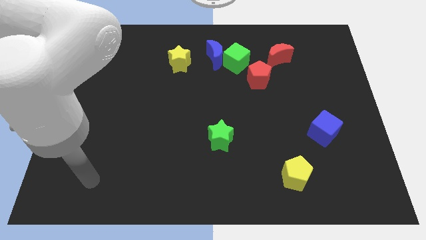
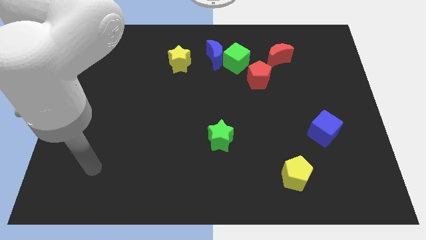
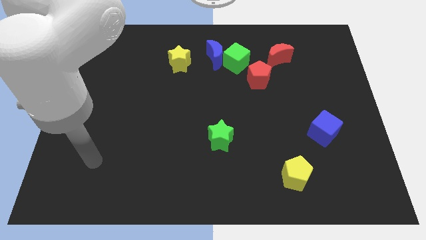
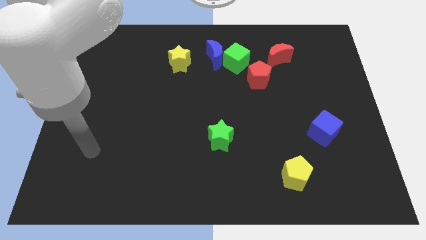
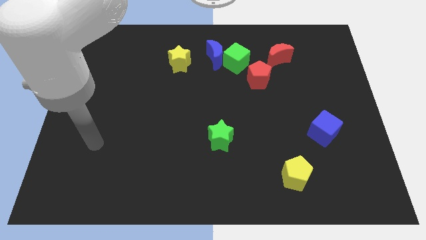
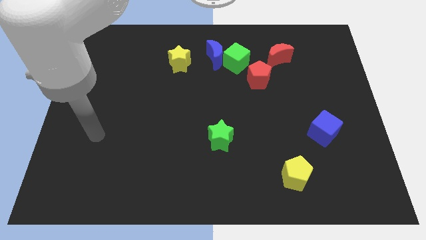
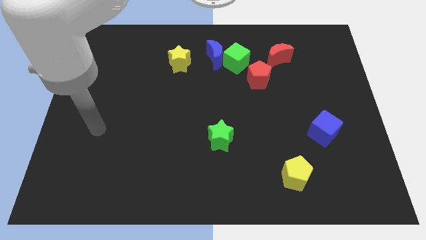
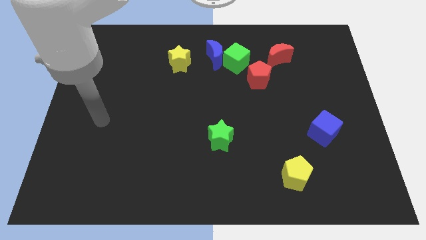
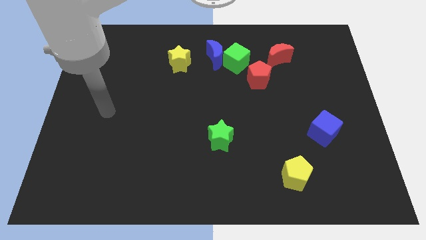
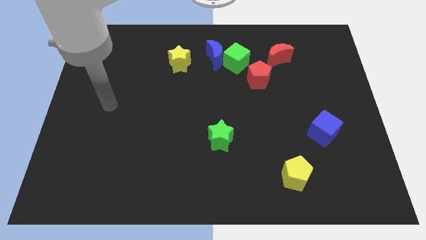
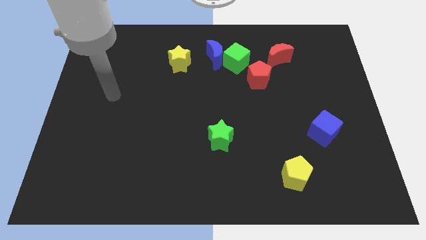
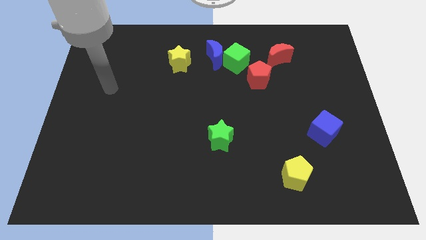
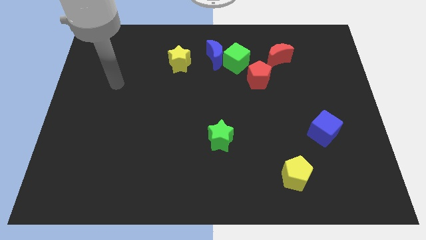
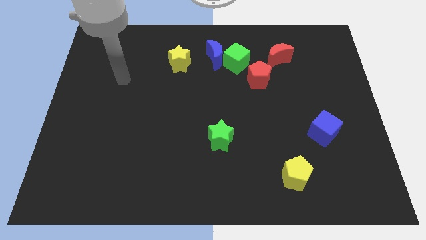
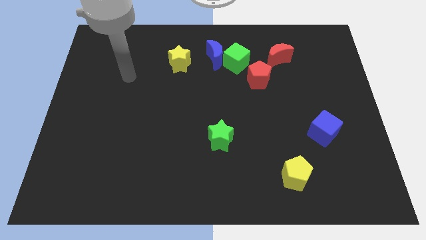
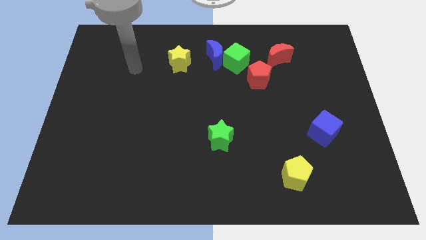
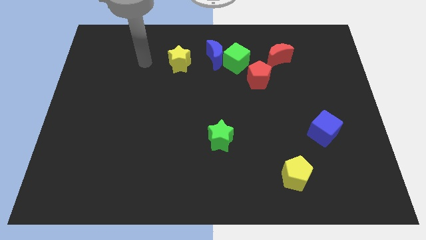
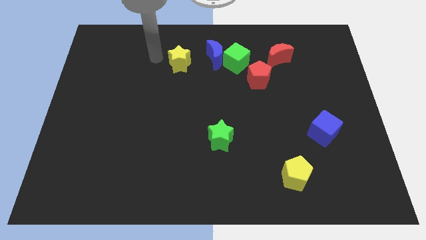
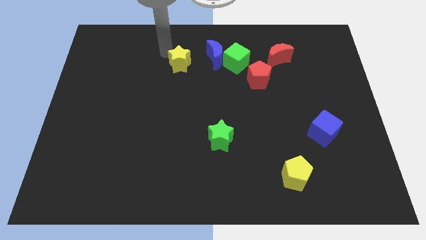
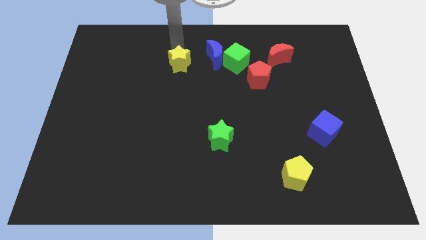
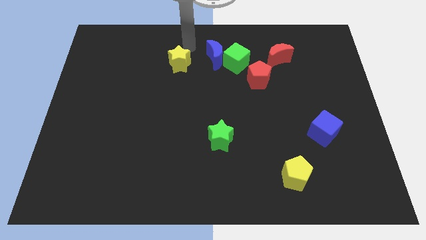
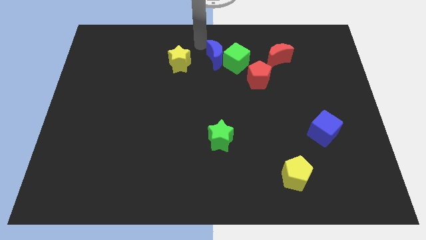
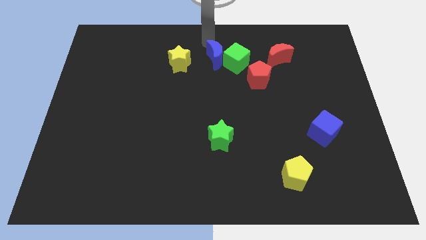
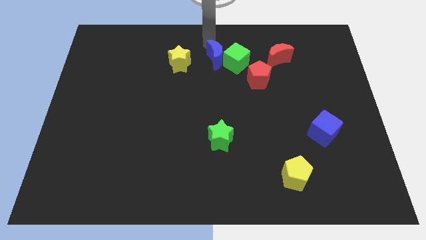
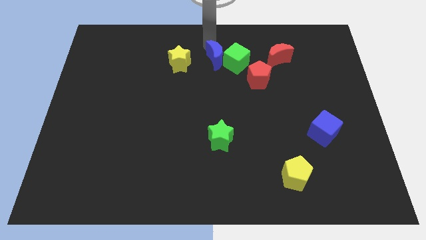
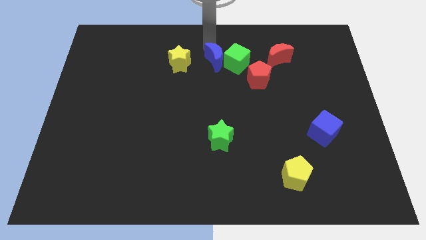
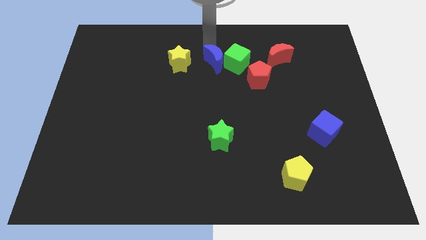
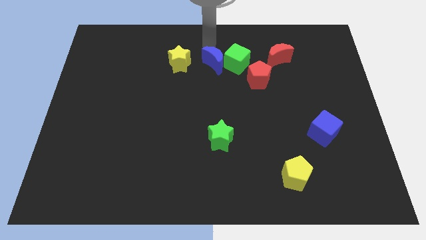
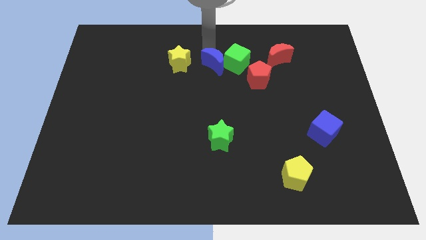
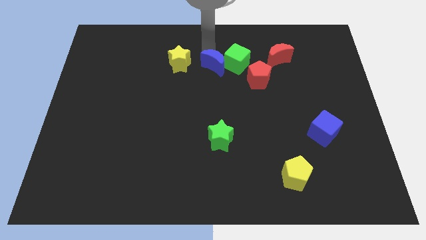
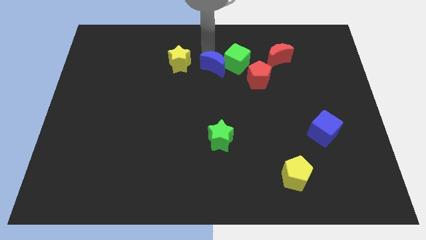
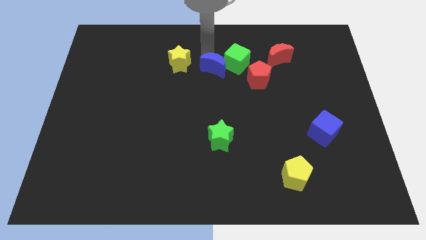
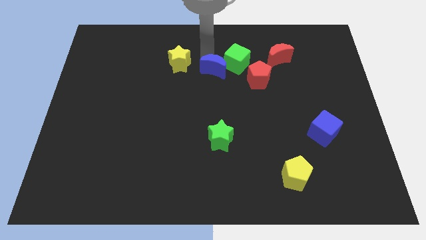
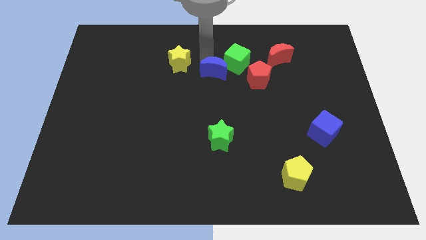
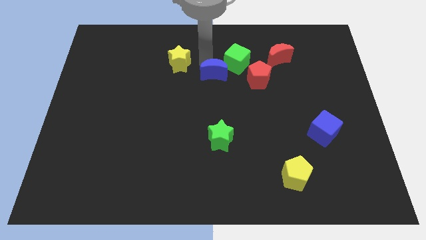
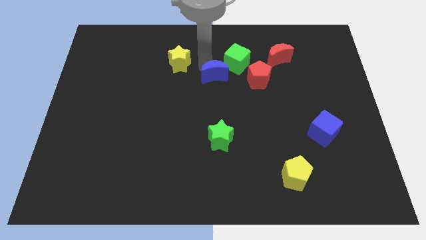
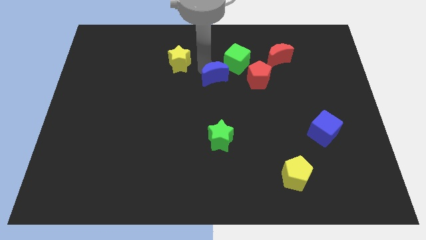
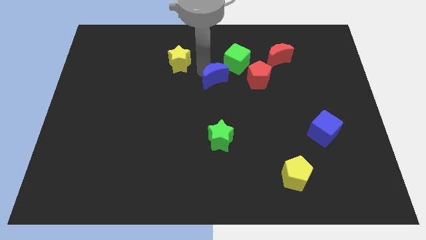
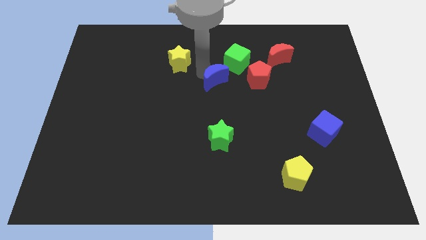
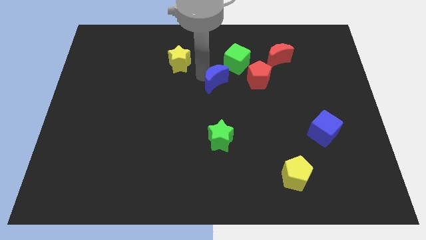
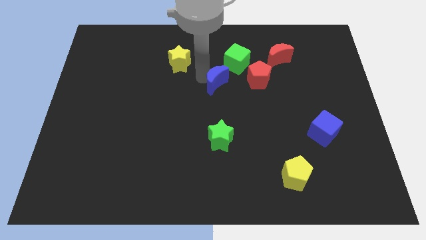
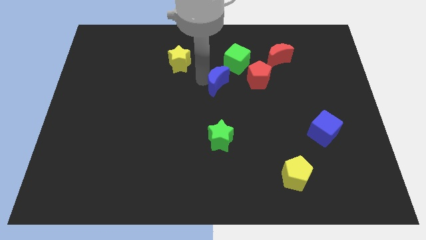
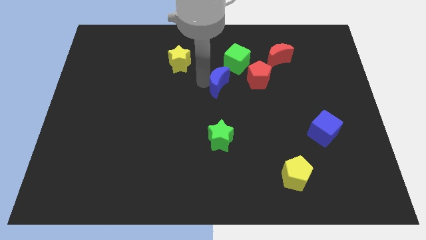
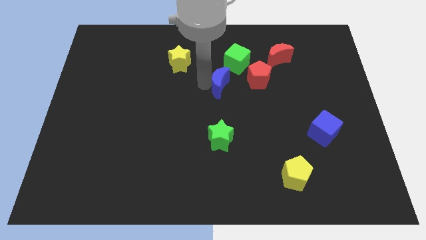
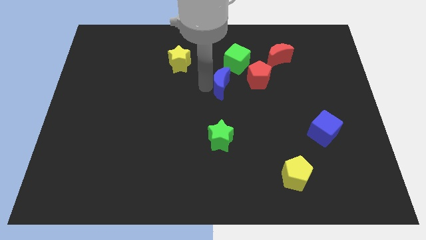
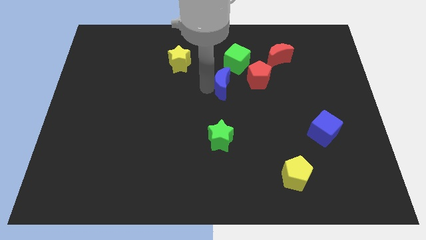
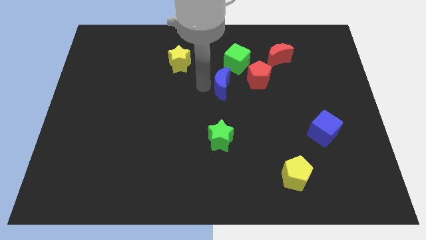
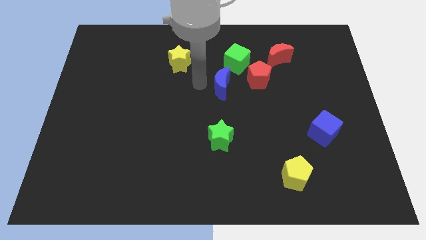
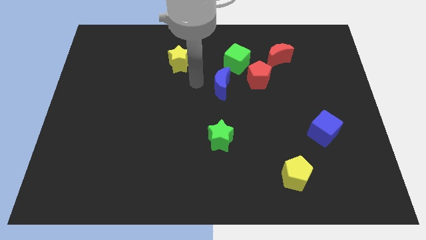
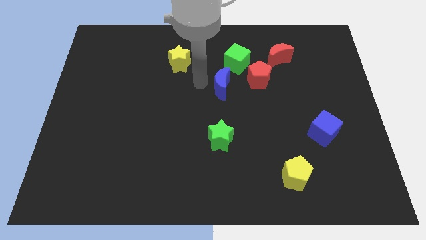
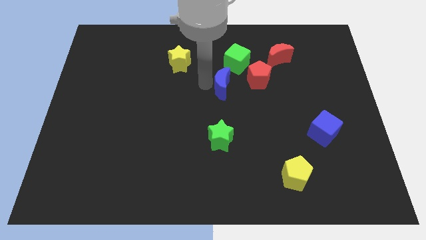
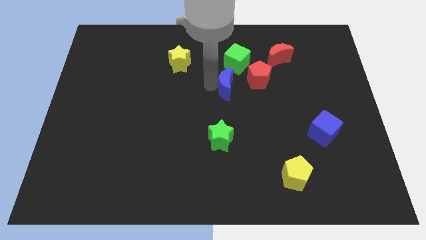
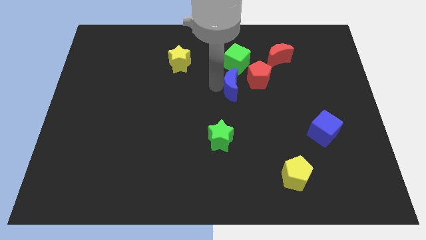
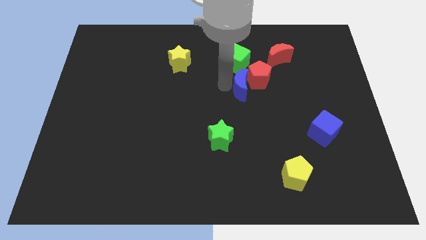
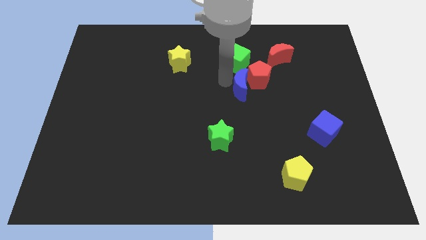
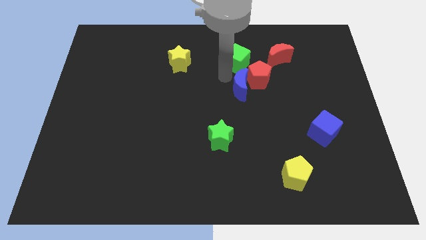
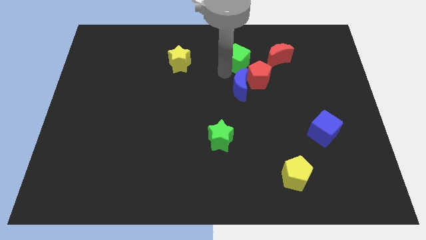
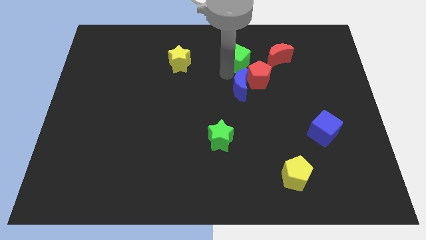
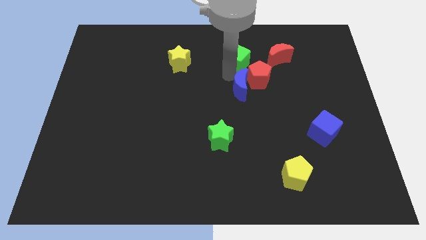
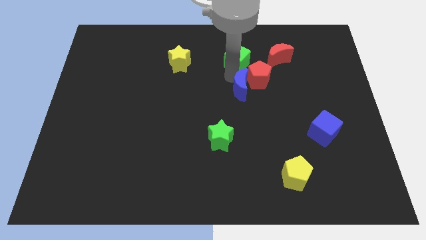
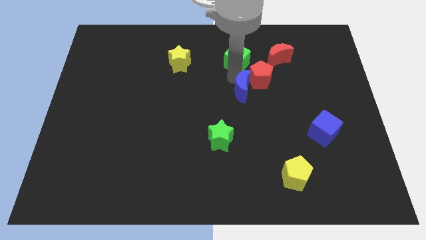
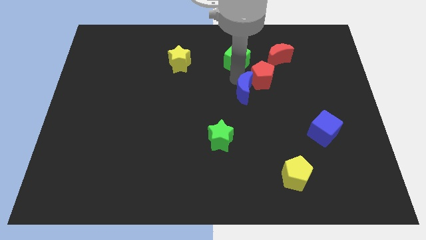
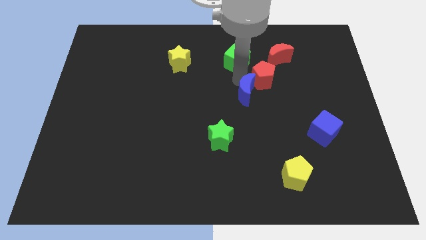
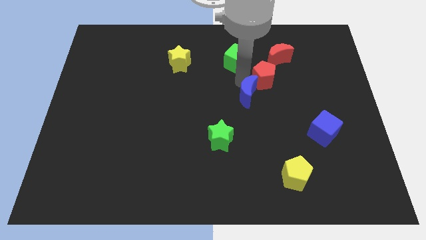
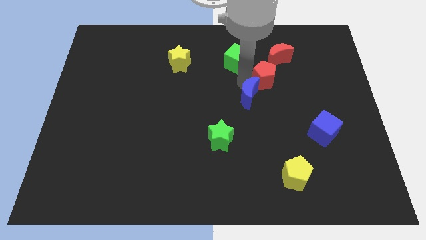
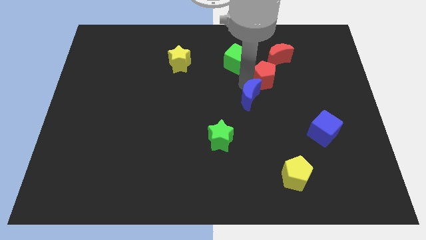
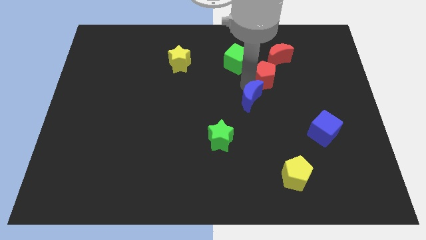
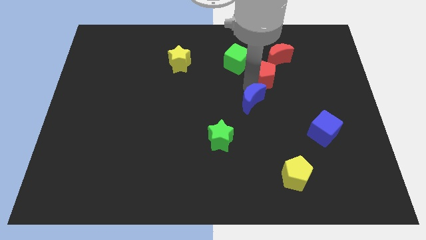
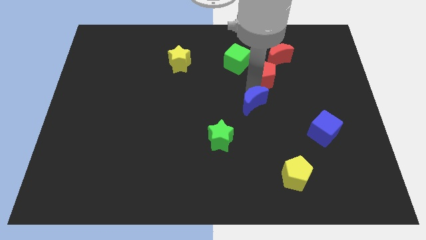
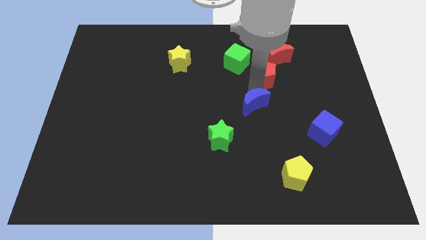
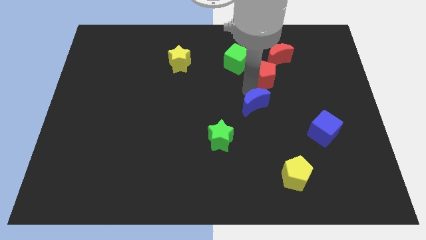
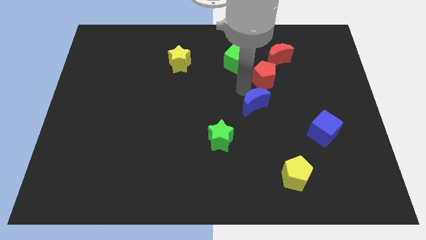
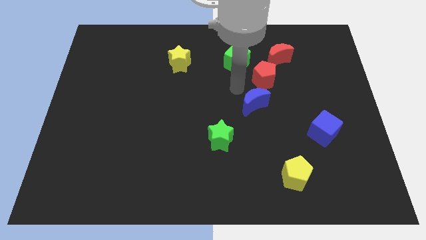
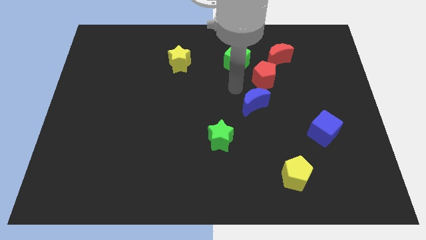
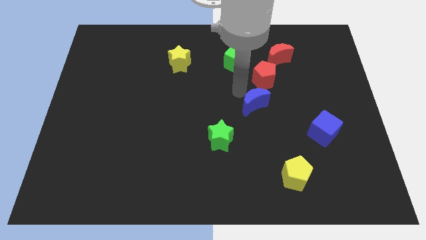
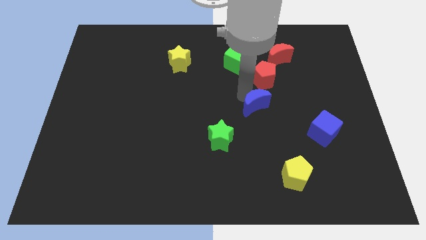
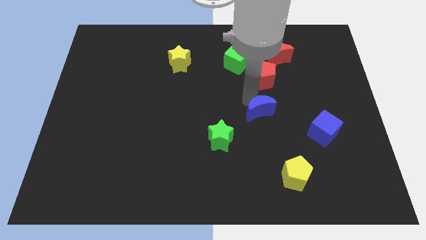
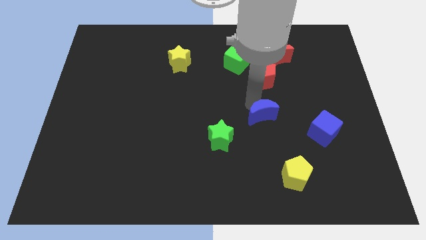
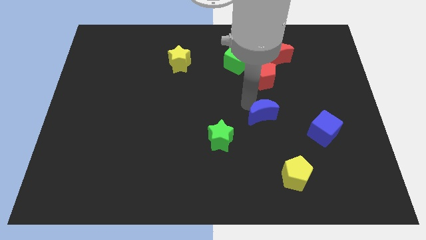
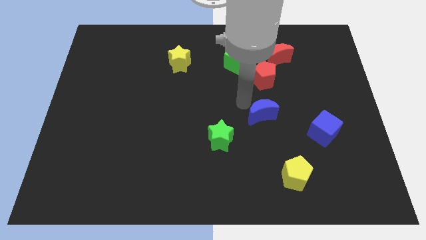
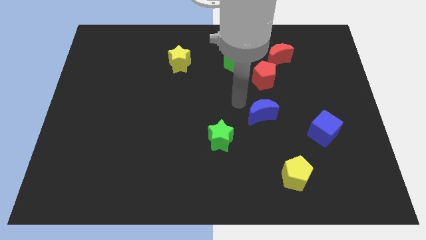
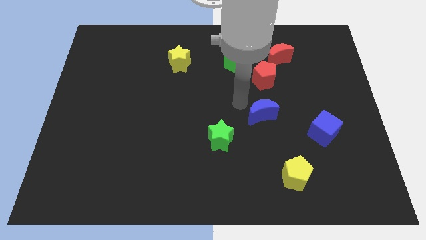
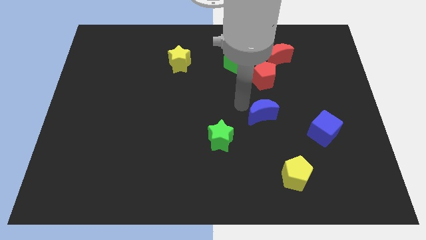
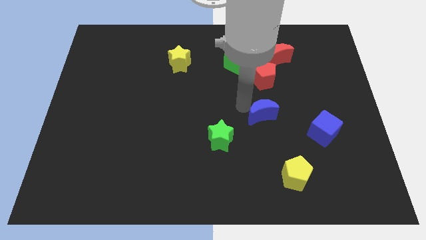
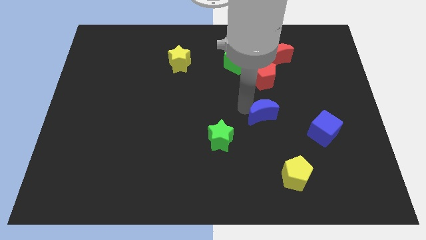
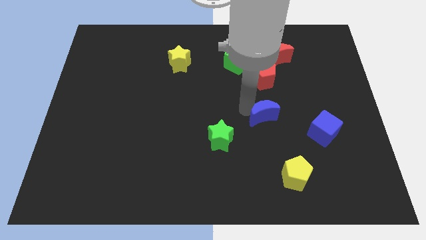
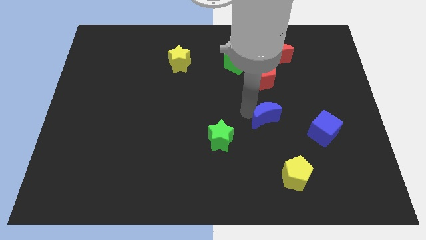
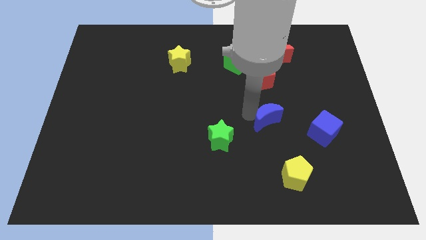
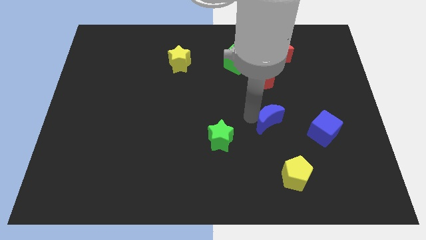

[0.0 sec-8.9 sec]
push the blue moon to the top of the yellow pentagon
